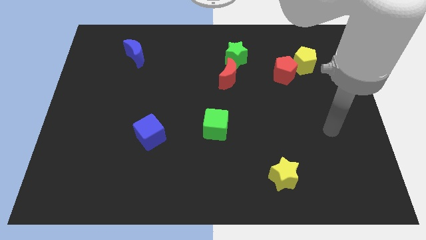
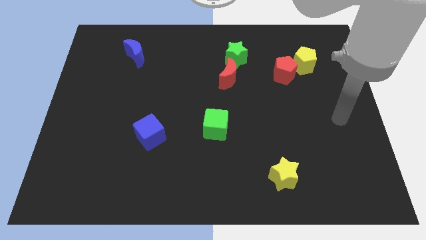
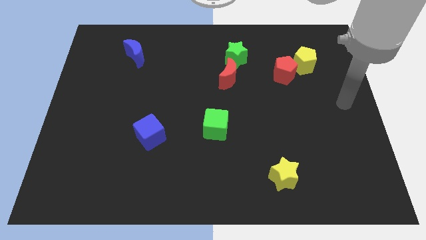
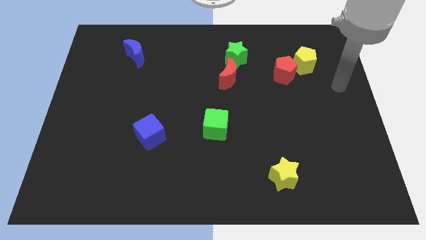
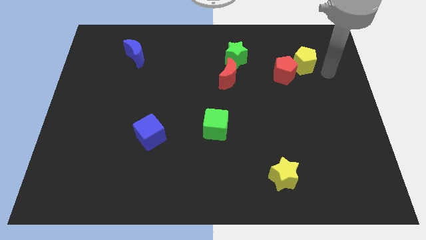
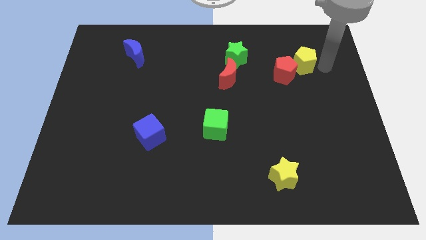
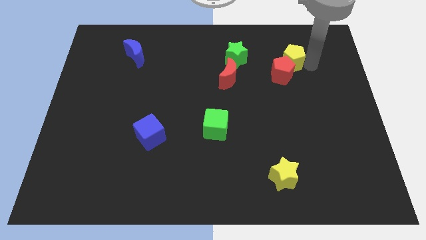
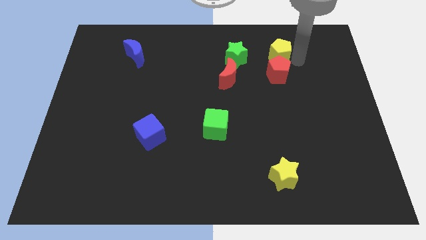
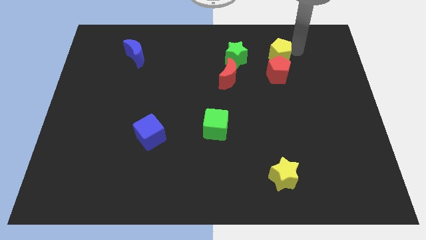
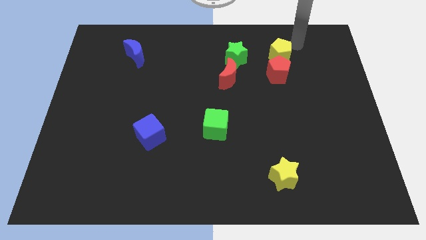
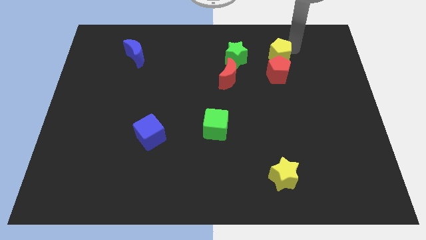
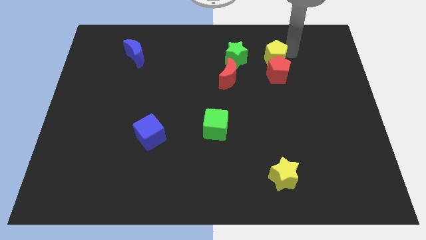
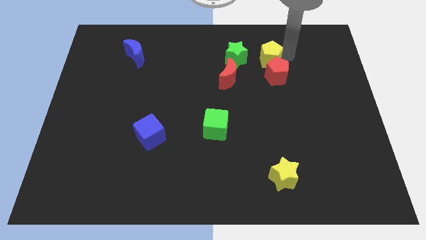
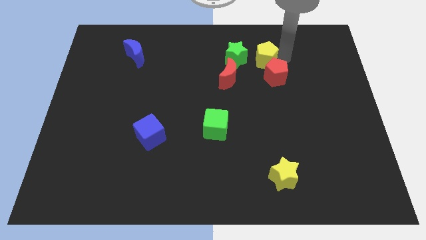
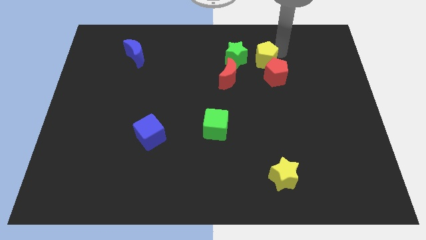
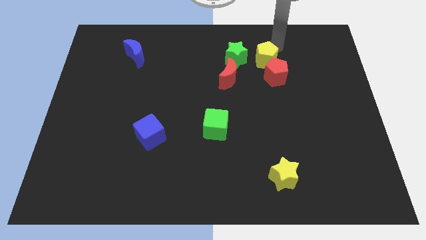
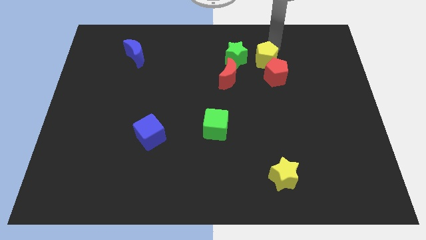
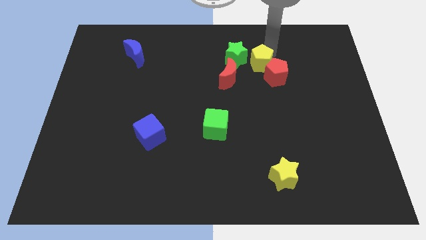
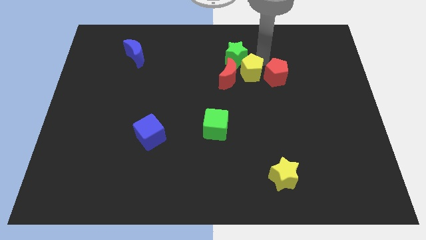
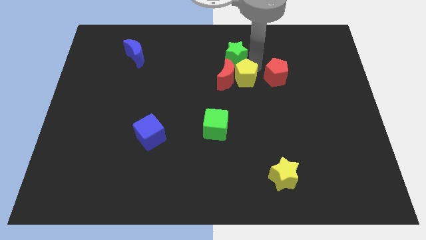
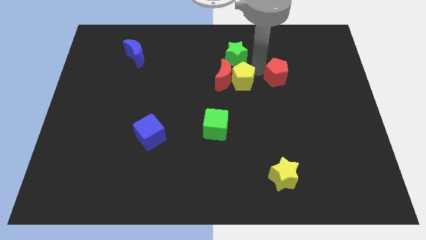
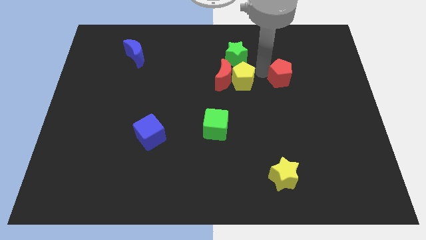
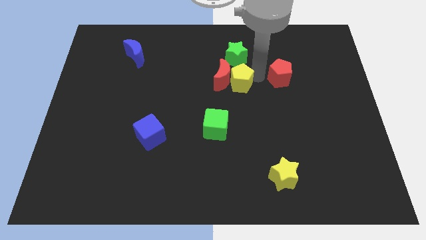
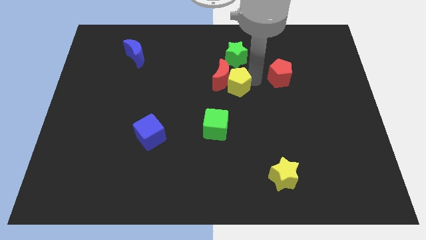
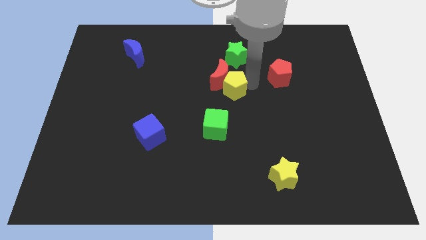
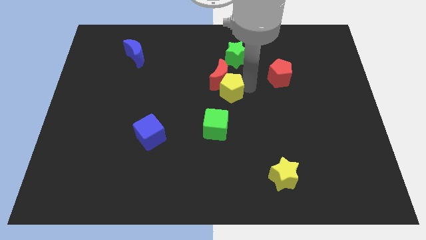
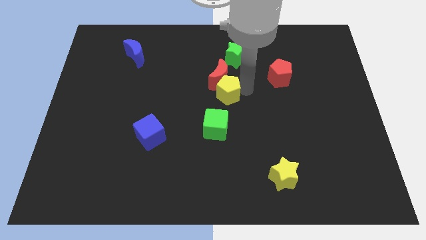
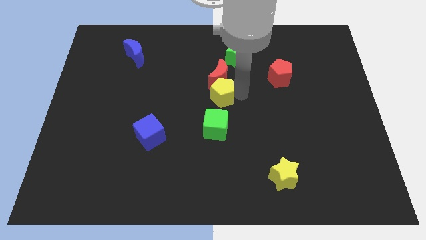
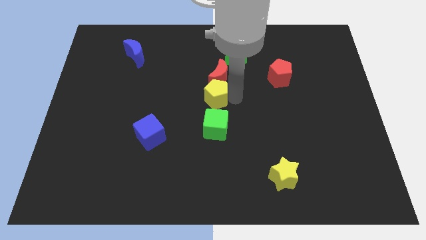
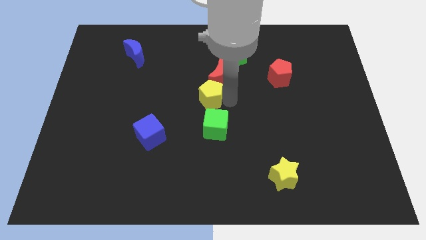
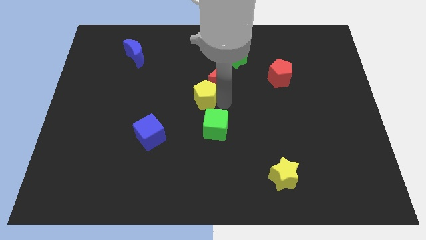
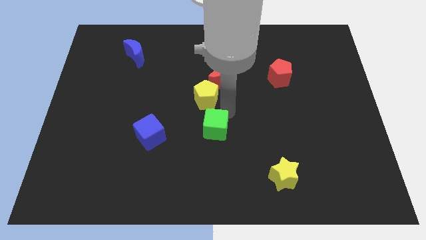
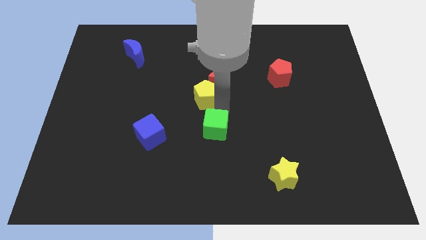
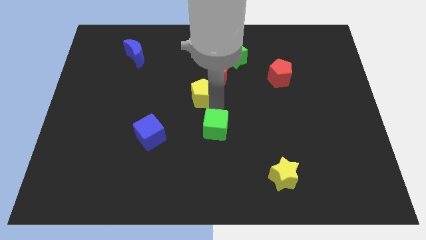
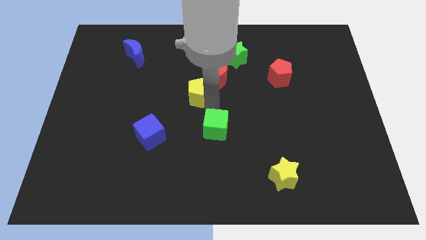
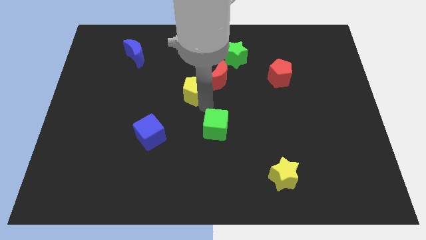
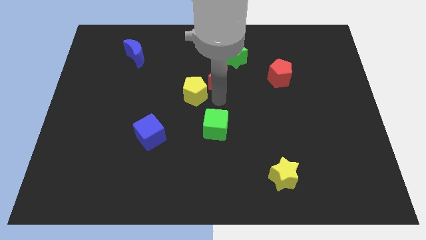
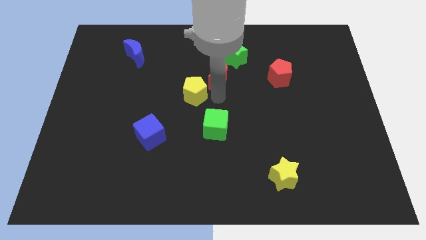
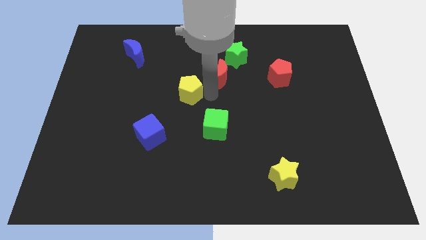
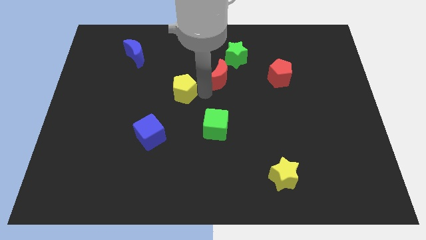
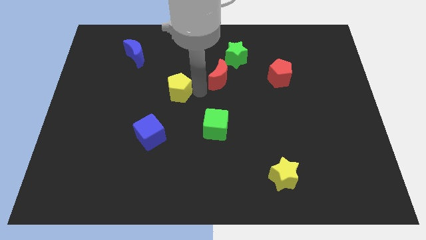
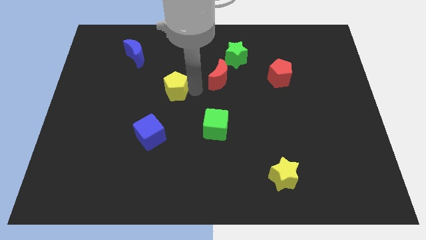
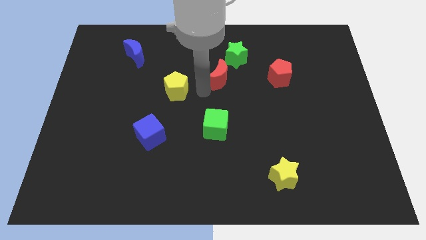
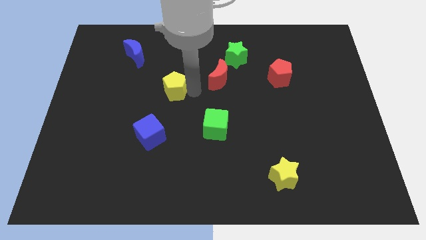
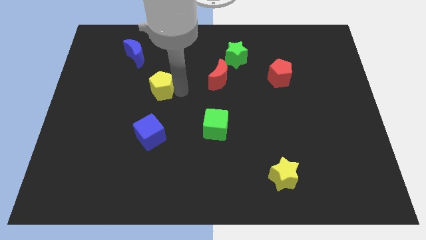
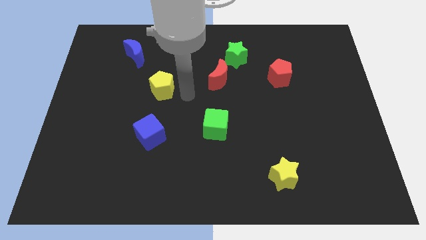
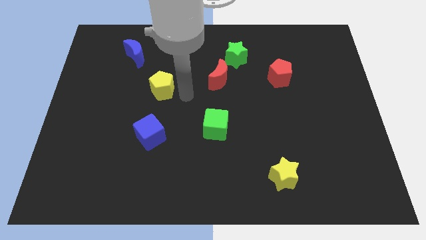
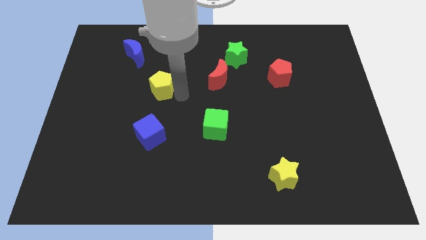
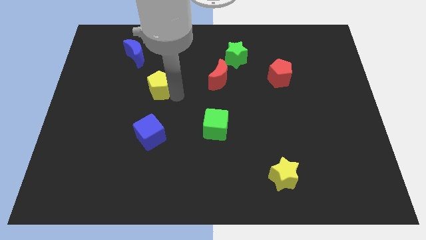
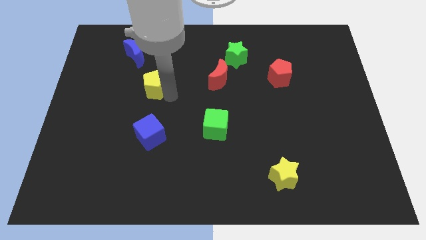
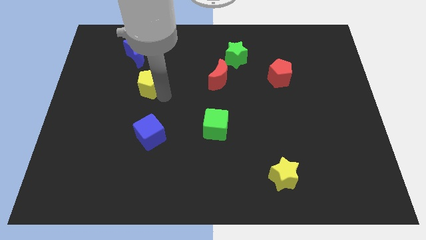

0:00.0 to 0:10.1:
push the yellow pentagon to the bottom side of the blue moon

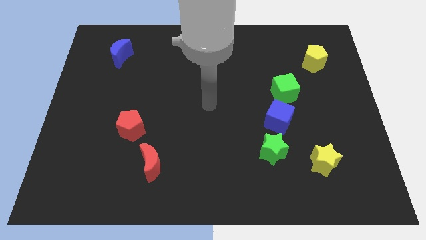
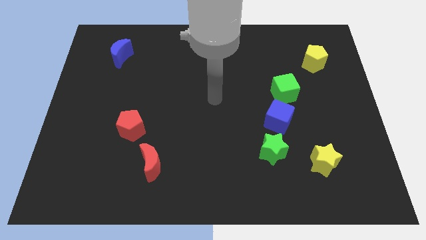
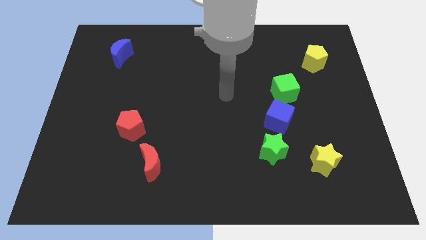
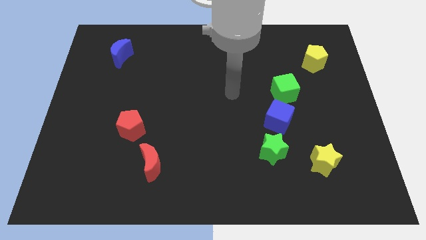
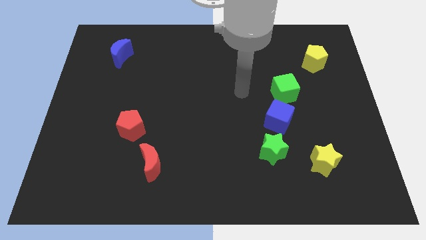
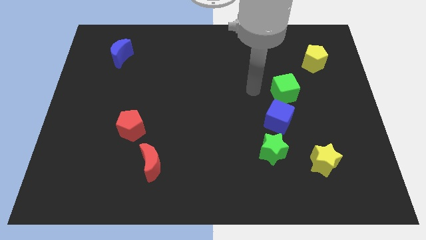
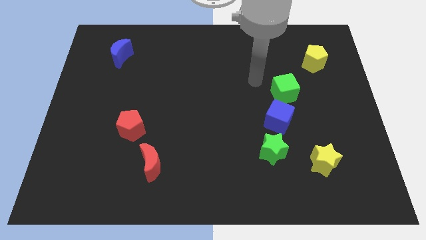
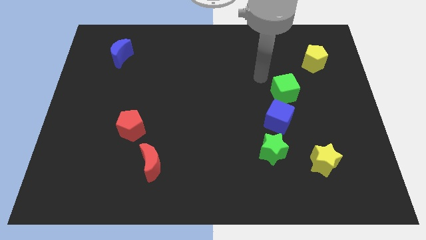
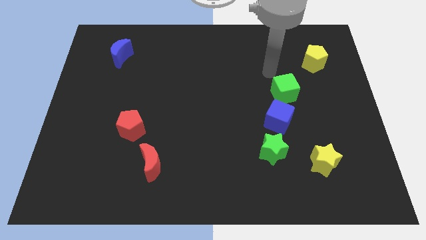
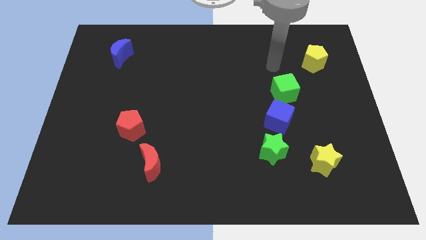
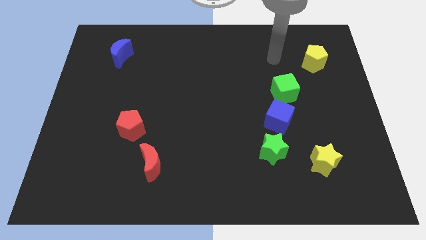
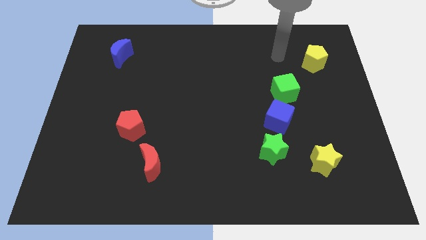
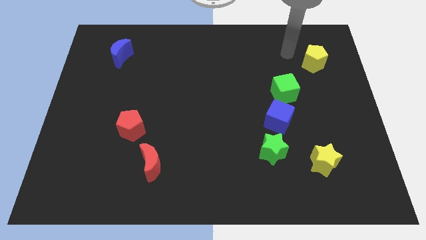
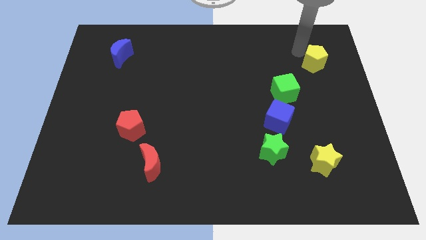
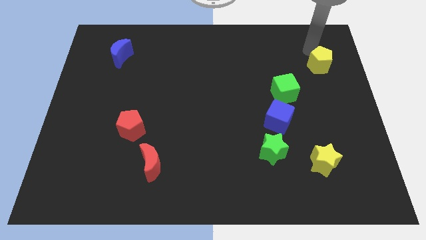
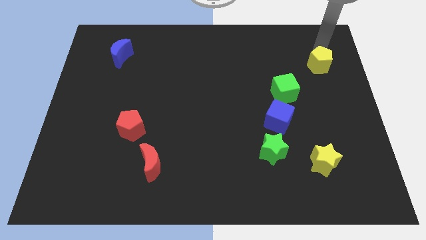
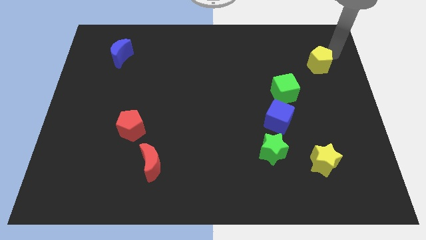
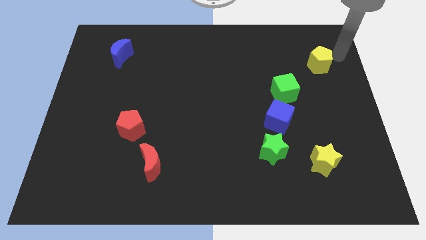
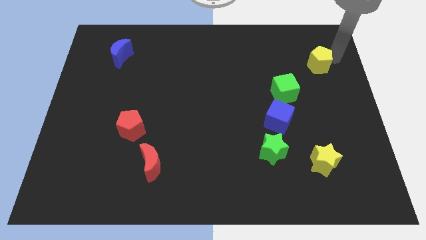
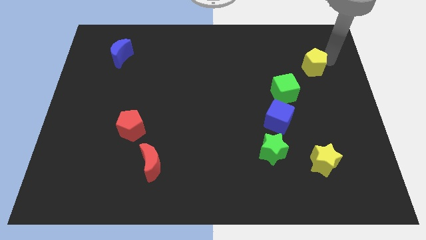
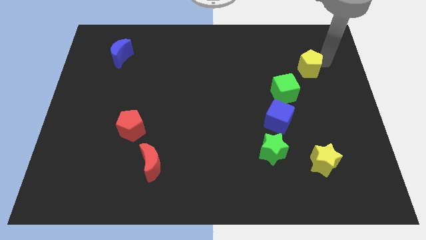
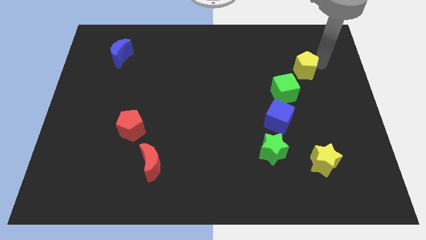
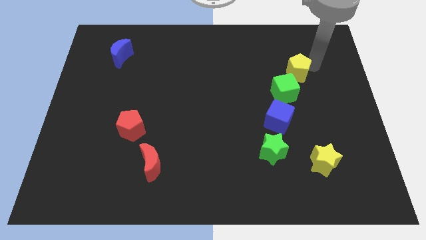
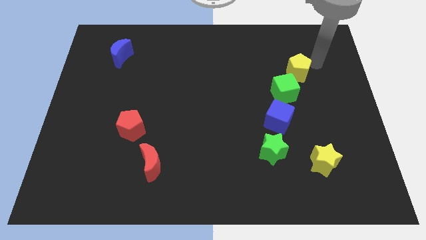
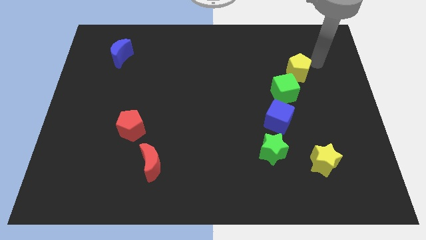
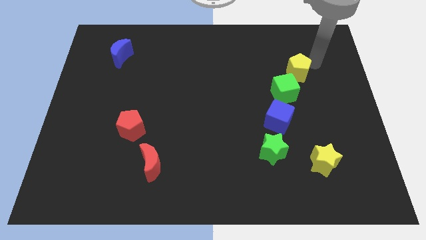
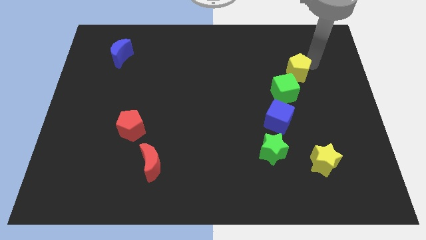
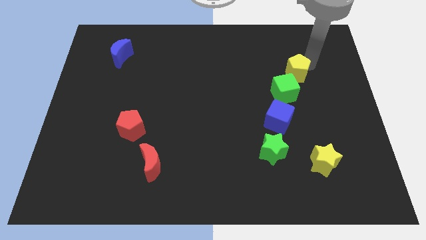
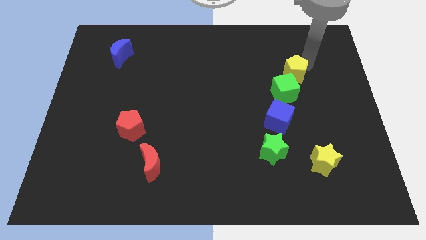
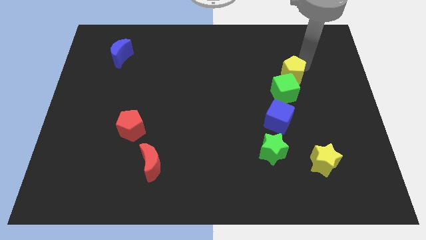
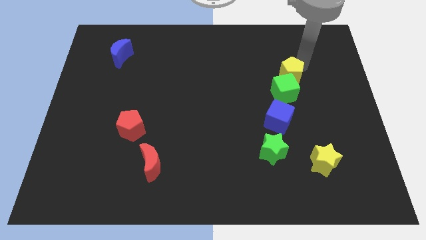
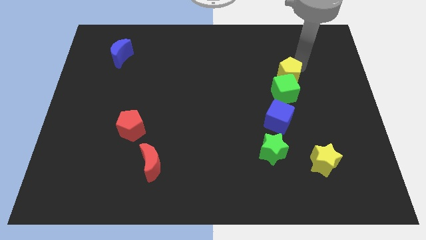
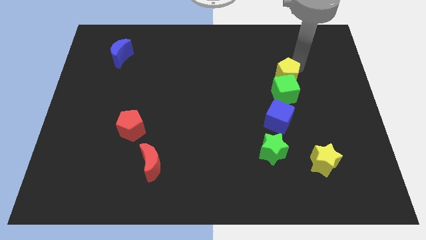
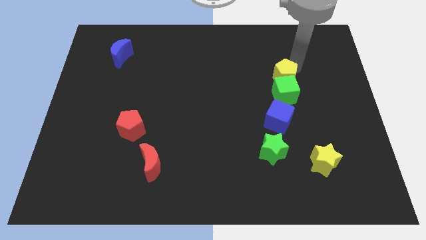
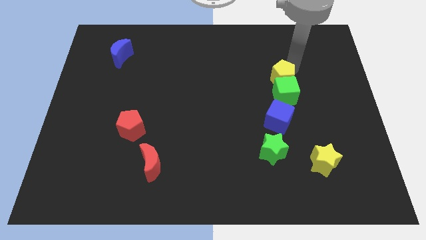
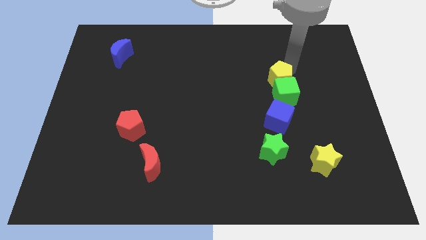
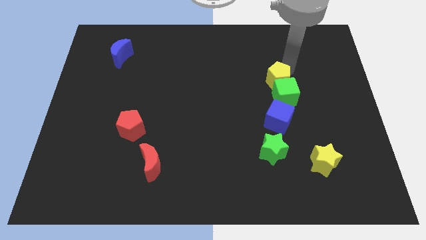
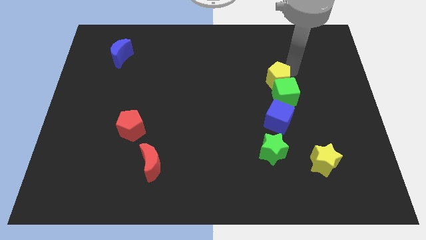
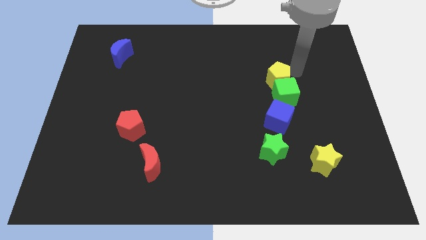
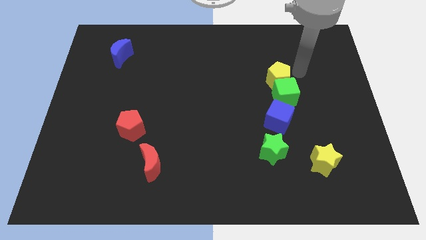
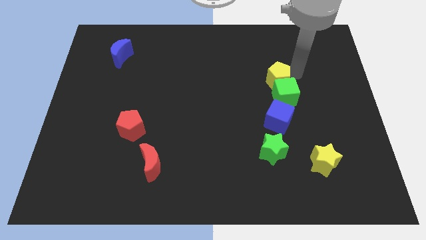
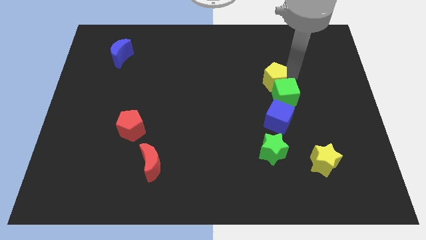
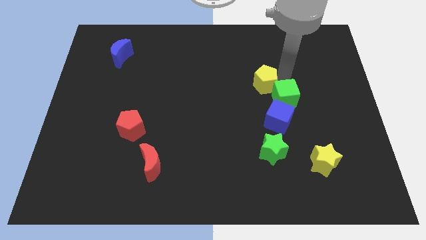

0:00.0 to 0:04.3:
slide the yellow pentagon to the left side of the green cube
